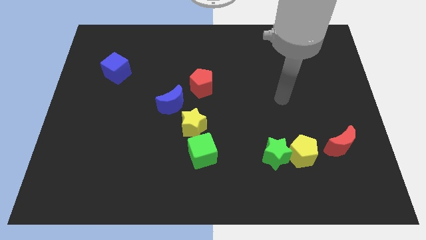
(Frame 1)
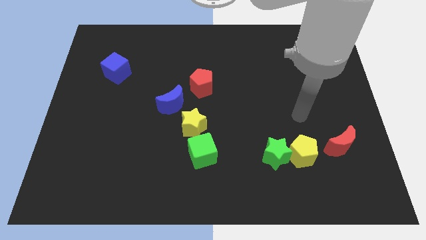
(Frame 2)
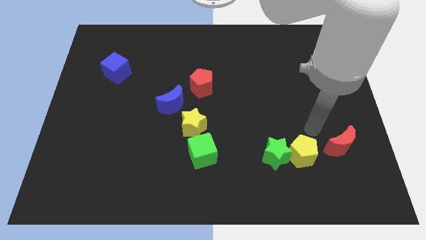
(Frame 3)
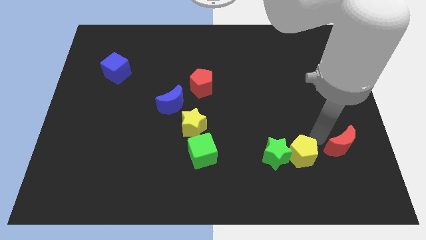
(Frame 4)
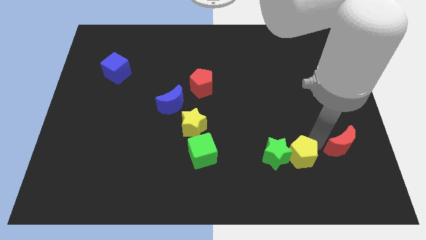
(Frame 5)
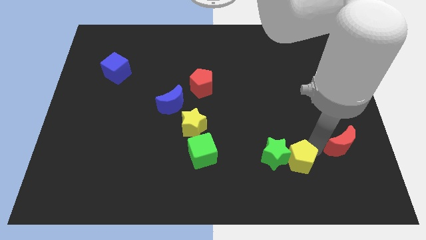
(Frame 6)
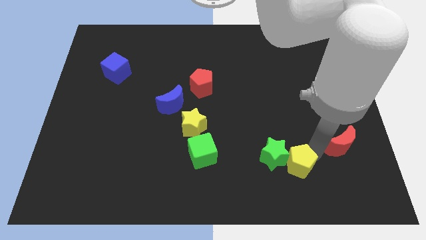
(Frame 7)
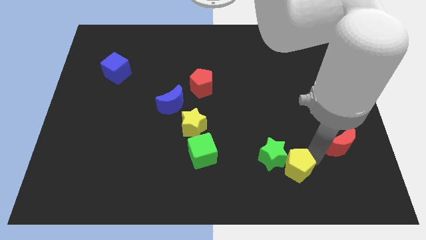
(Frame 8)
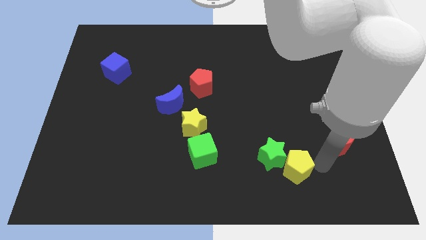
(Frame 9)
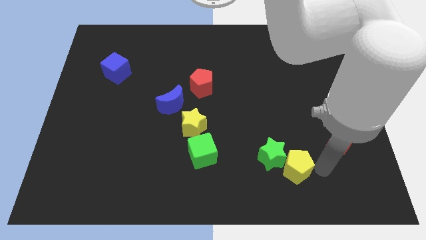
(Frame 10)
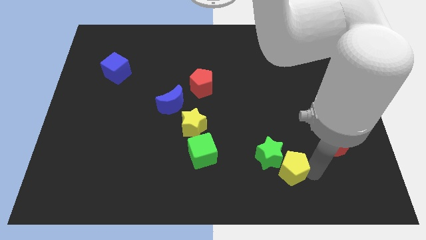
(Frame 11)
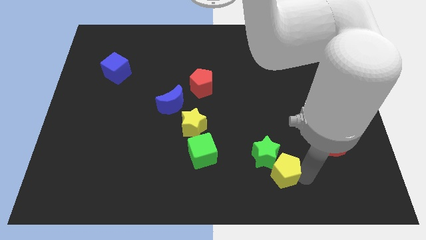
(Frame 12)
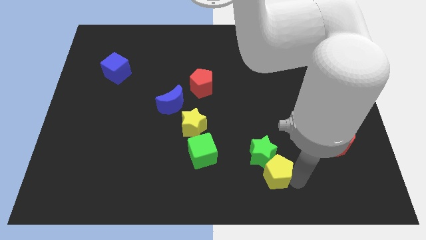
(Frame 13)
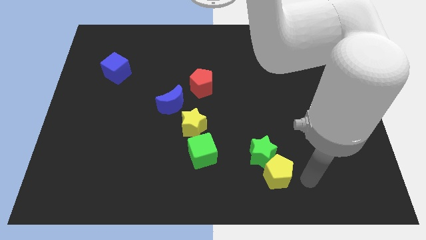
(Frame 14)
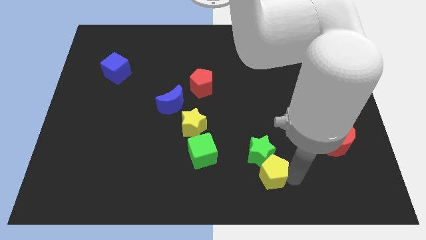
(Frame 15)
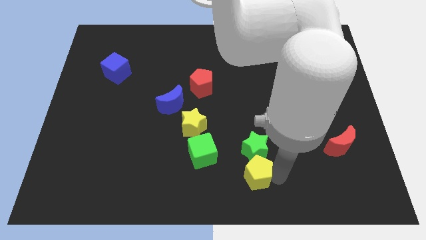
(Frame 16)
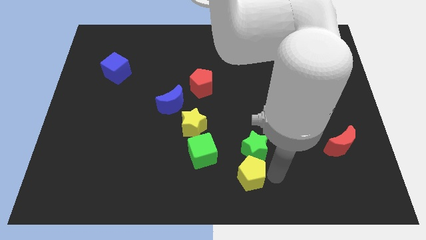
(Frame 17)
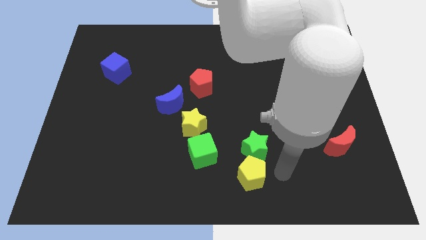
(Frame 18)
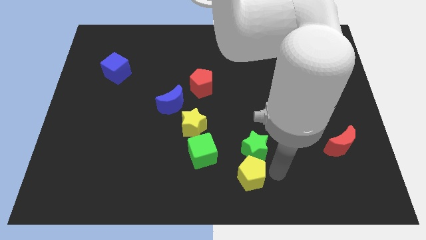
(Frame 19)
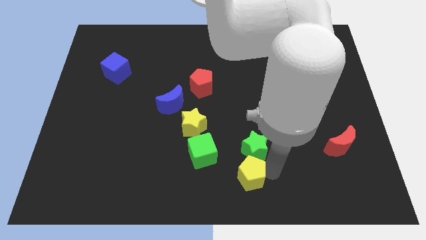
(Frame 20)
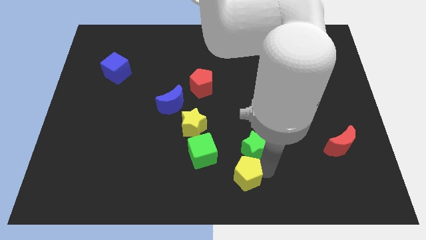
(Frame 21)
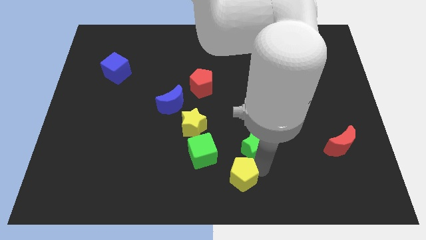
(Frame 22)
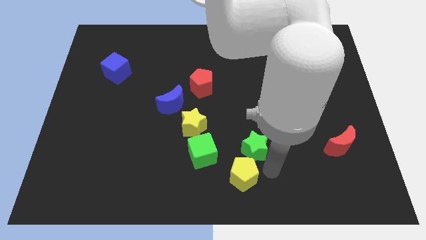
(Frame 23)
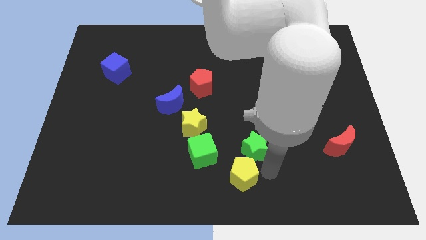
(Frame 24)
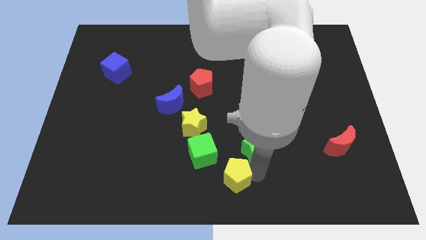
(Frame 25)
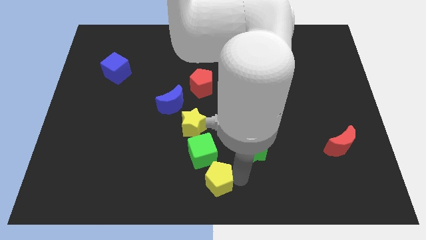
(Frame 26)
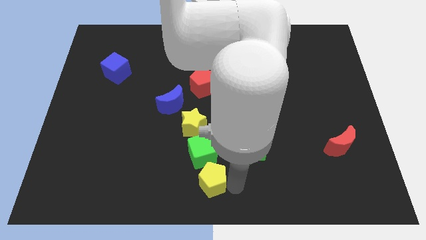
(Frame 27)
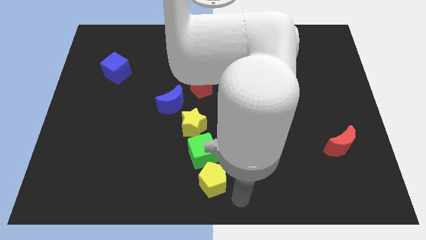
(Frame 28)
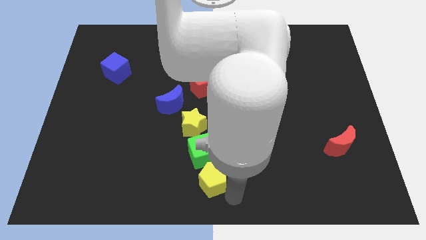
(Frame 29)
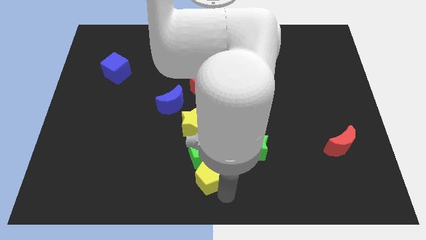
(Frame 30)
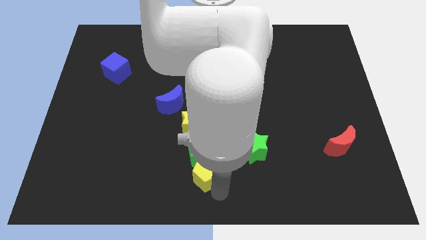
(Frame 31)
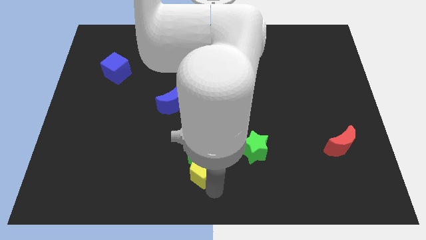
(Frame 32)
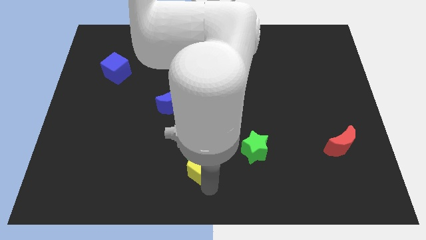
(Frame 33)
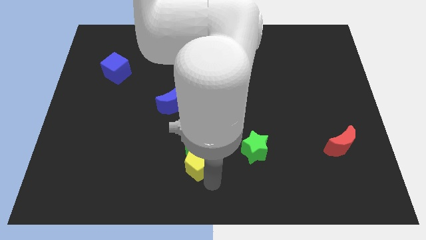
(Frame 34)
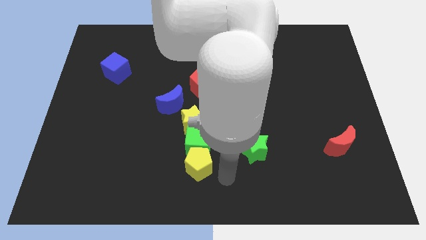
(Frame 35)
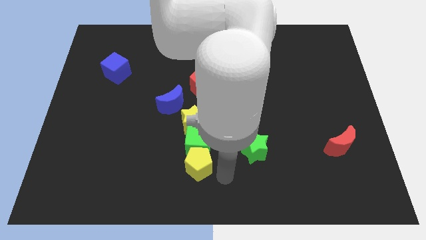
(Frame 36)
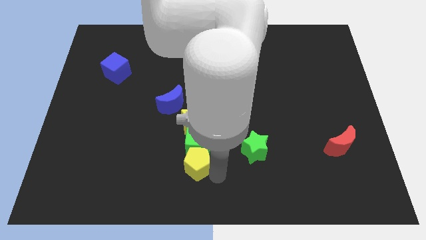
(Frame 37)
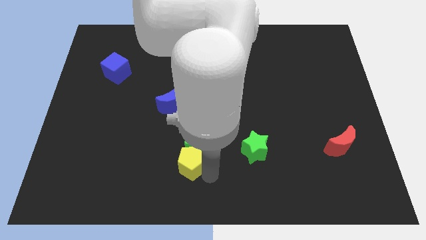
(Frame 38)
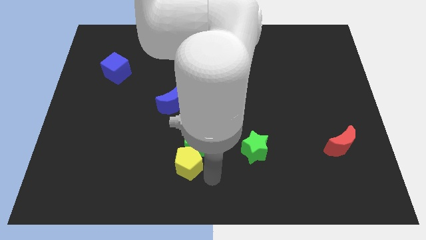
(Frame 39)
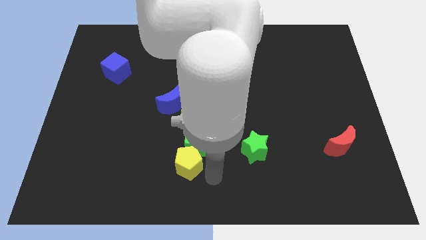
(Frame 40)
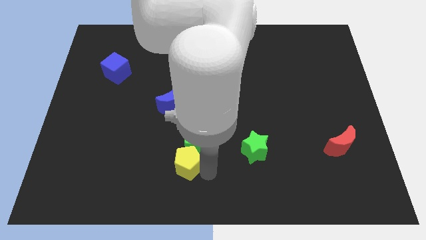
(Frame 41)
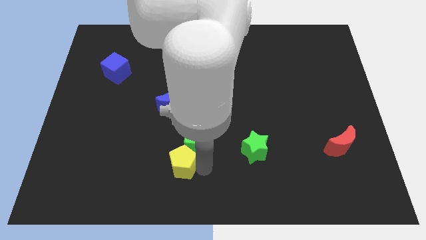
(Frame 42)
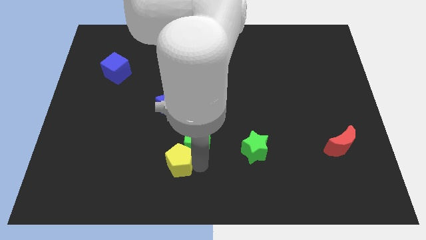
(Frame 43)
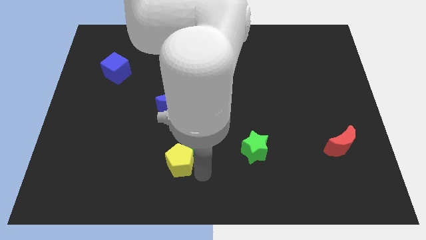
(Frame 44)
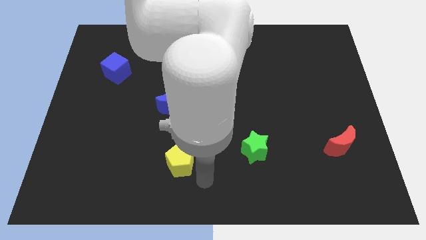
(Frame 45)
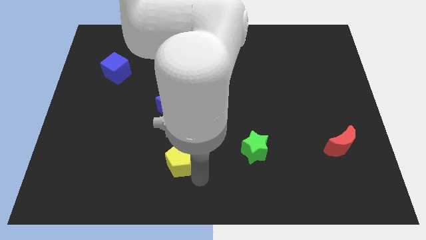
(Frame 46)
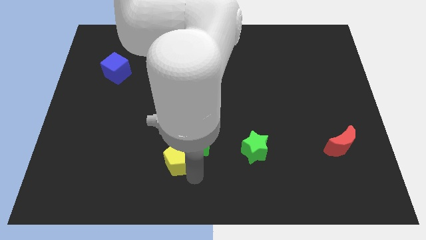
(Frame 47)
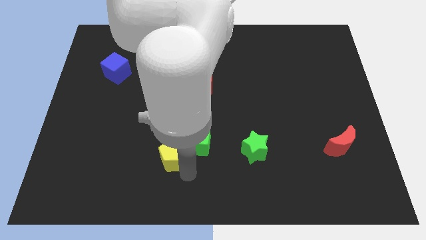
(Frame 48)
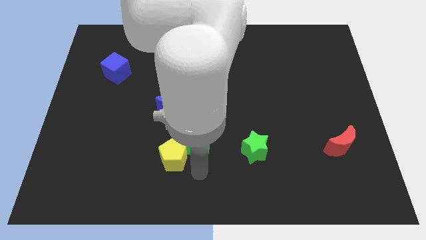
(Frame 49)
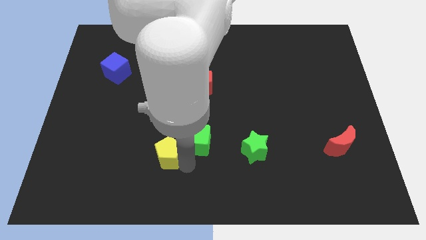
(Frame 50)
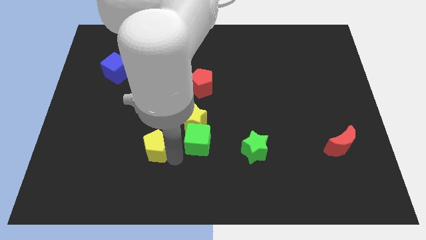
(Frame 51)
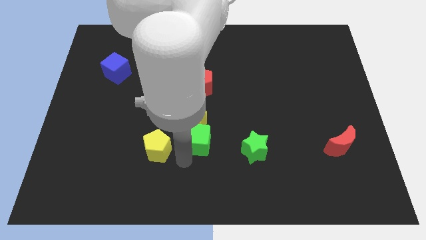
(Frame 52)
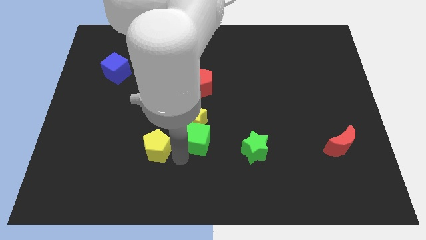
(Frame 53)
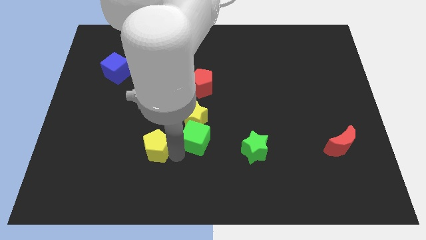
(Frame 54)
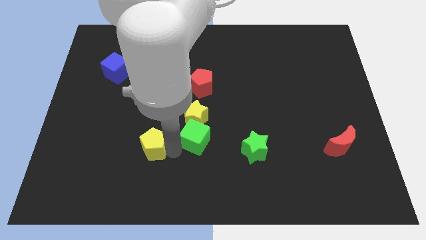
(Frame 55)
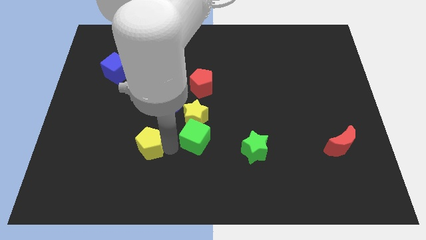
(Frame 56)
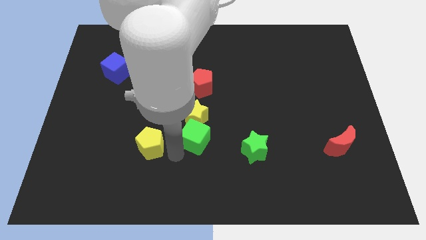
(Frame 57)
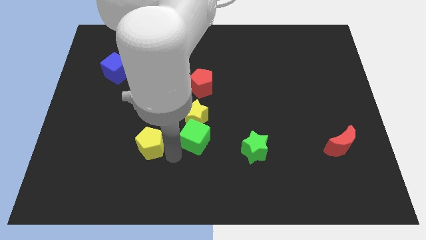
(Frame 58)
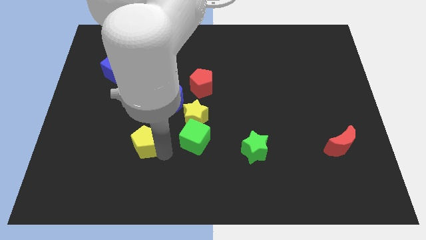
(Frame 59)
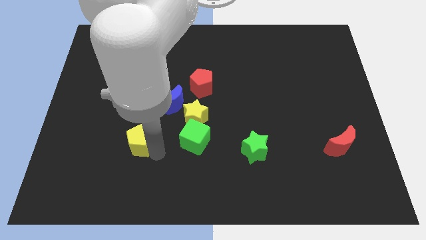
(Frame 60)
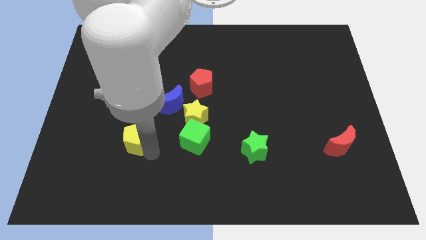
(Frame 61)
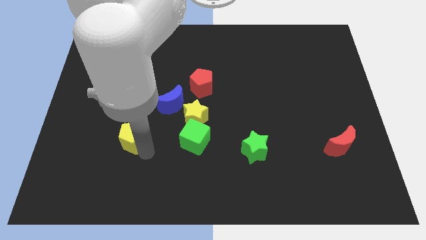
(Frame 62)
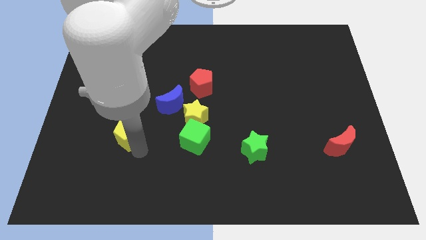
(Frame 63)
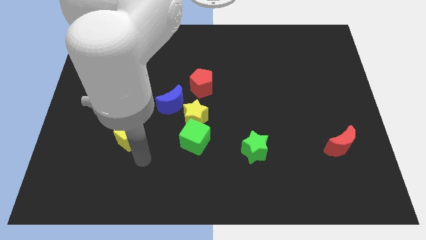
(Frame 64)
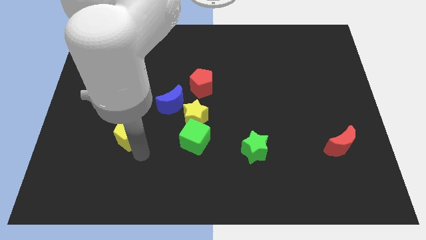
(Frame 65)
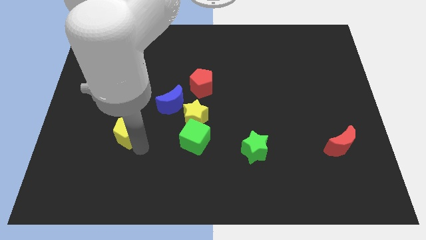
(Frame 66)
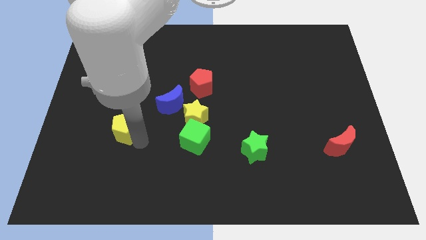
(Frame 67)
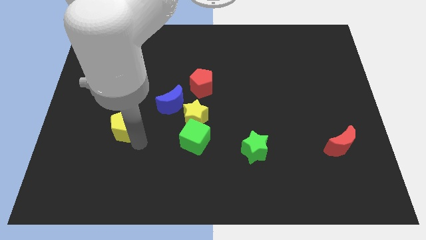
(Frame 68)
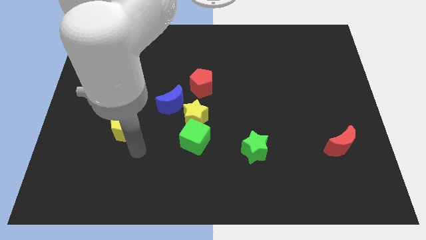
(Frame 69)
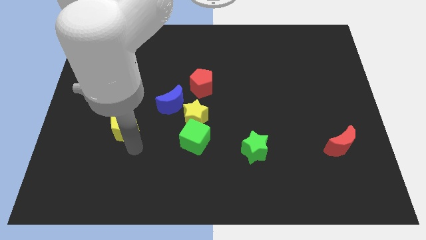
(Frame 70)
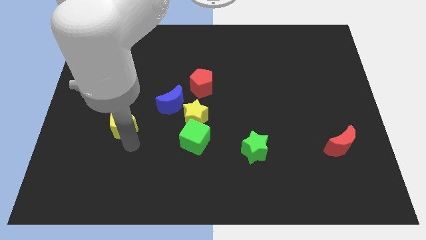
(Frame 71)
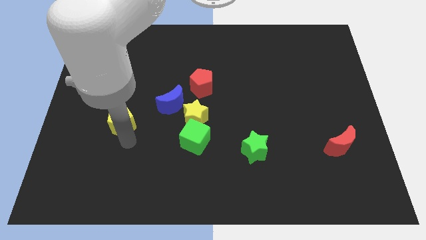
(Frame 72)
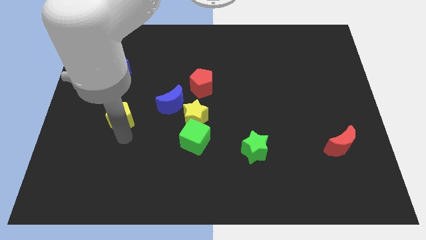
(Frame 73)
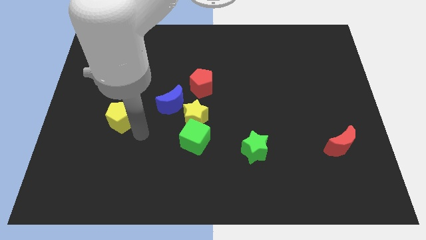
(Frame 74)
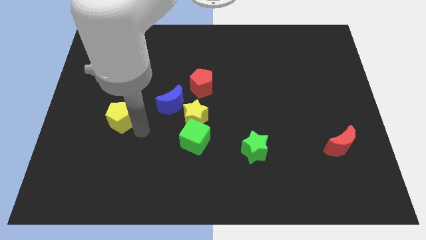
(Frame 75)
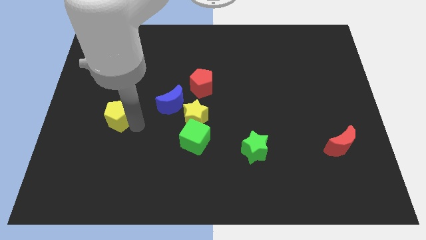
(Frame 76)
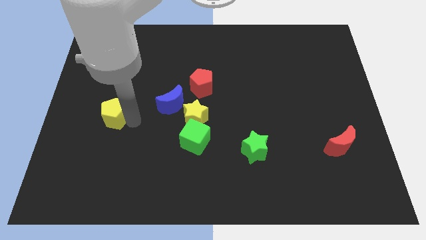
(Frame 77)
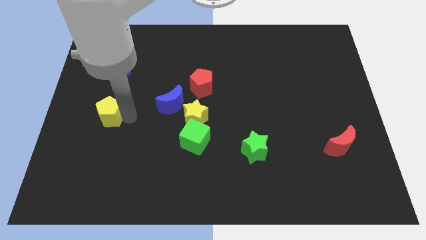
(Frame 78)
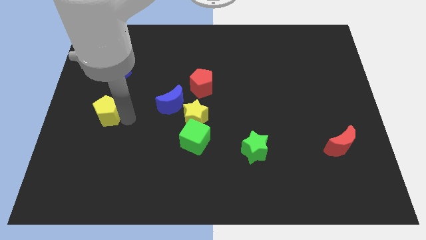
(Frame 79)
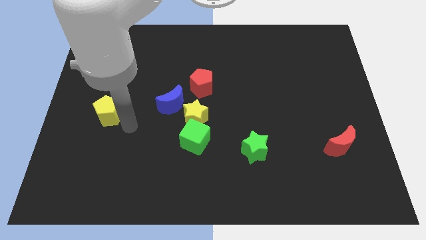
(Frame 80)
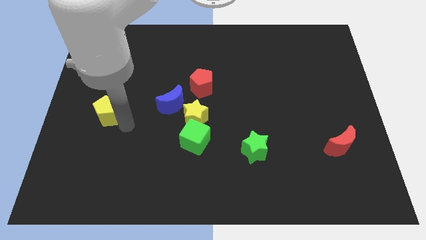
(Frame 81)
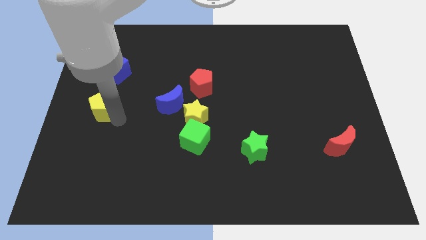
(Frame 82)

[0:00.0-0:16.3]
slide the yellow pentagon to the center left
